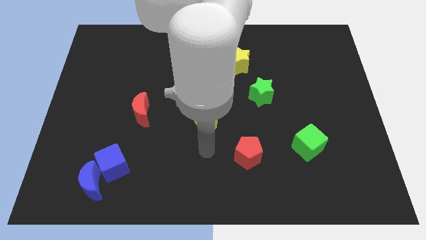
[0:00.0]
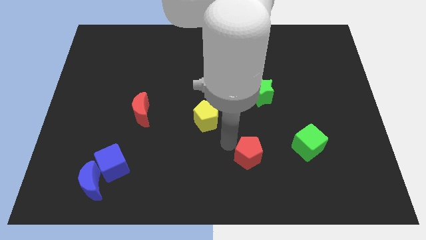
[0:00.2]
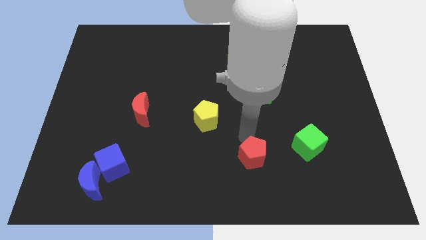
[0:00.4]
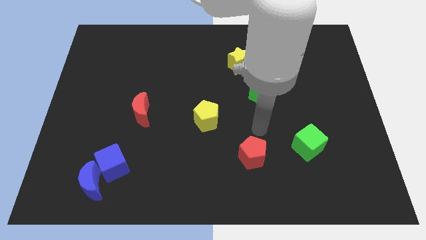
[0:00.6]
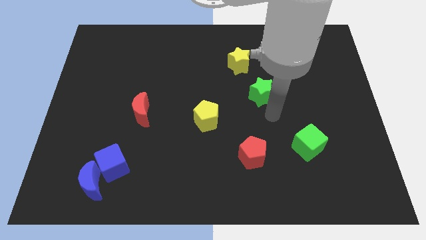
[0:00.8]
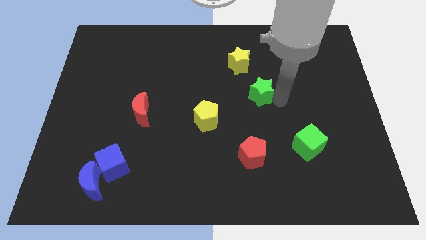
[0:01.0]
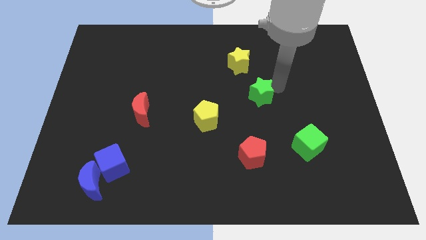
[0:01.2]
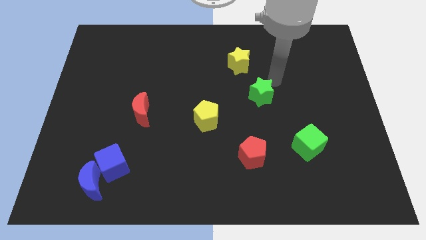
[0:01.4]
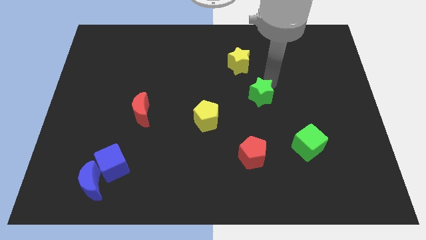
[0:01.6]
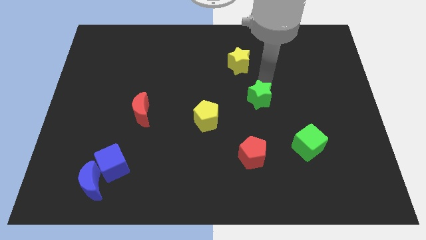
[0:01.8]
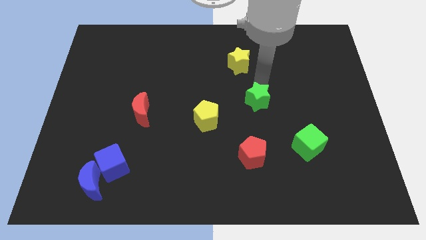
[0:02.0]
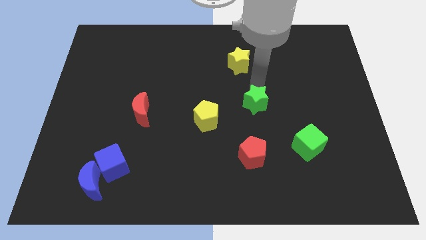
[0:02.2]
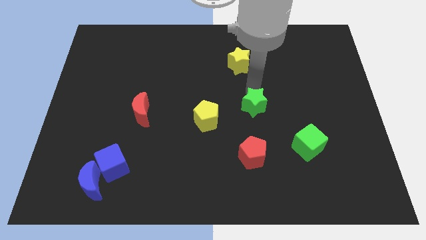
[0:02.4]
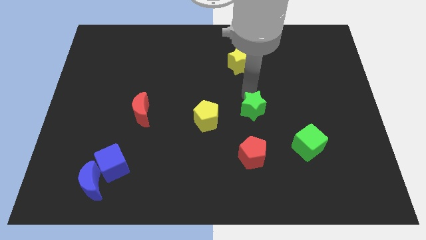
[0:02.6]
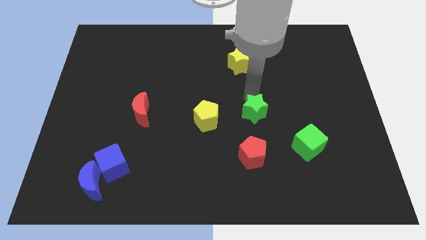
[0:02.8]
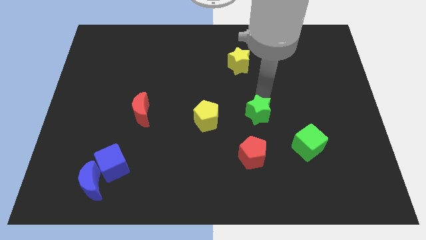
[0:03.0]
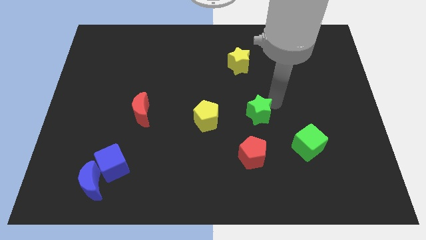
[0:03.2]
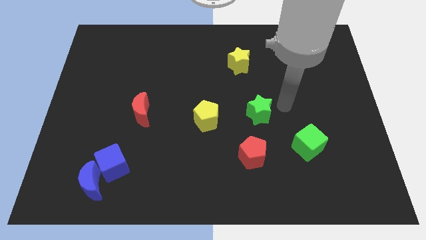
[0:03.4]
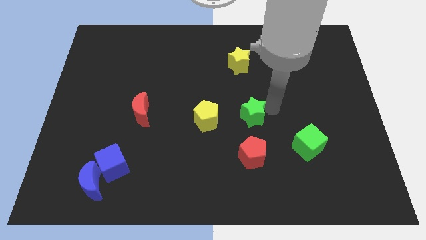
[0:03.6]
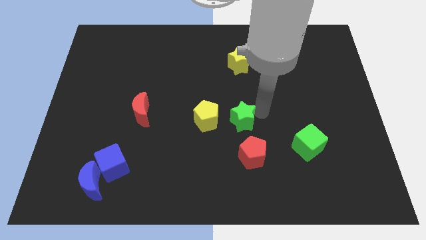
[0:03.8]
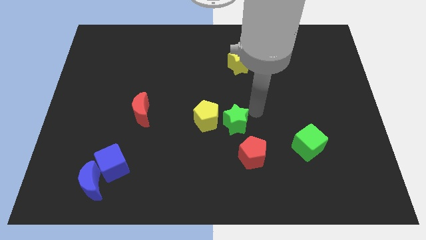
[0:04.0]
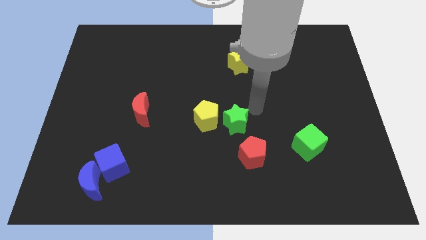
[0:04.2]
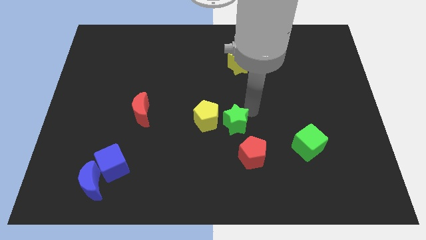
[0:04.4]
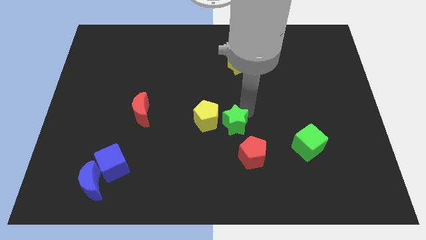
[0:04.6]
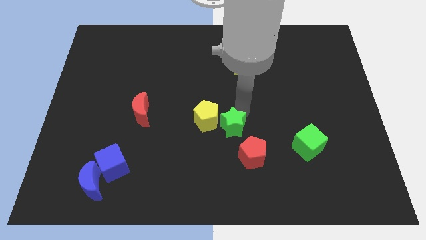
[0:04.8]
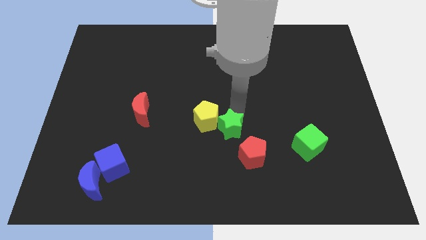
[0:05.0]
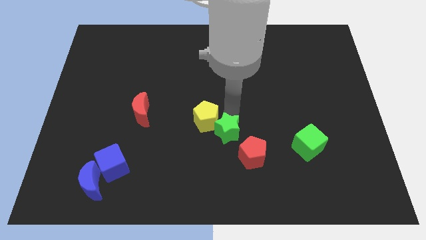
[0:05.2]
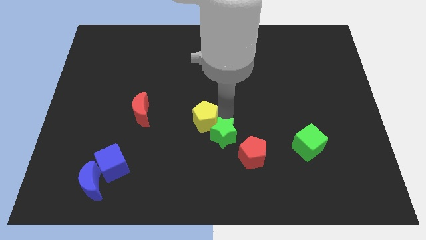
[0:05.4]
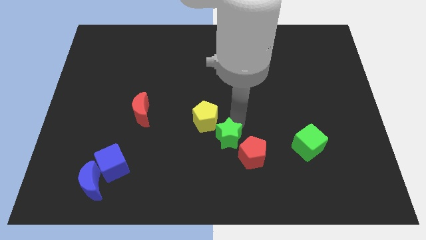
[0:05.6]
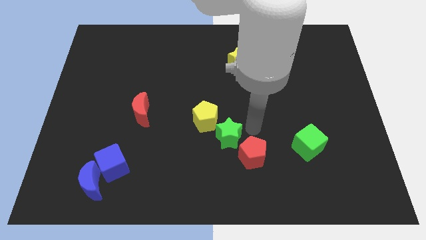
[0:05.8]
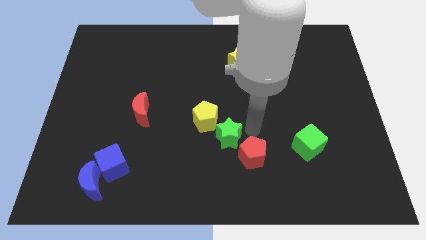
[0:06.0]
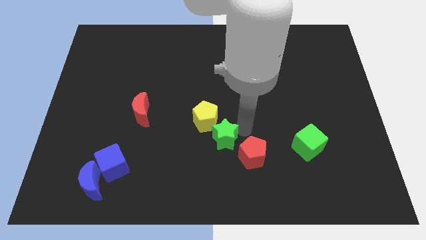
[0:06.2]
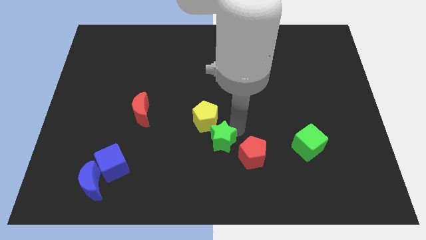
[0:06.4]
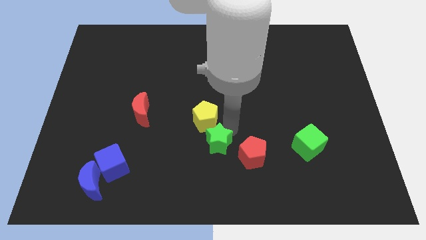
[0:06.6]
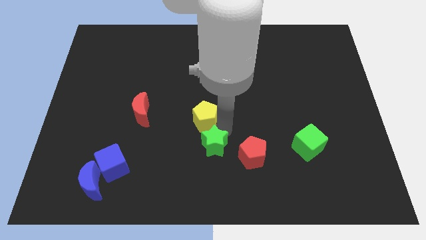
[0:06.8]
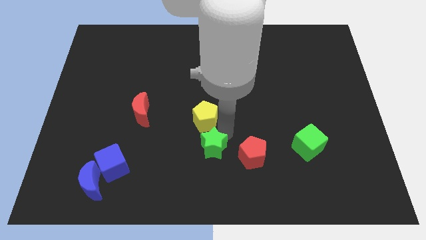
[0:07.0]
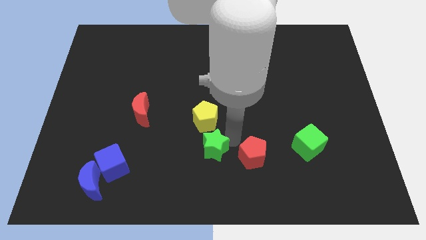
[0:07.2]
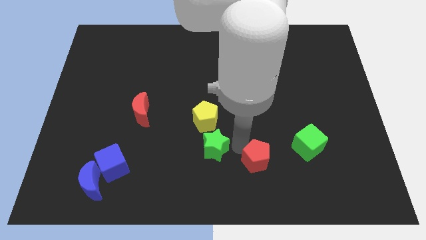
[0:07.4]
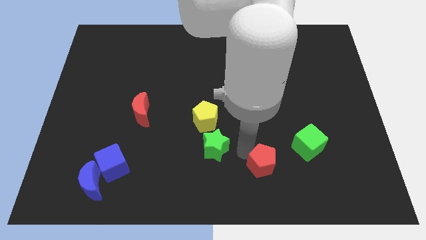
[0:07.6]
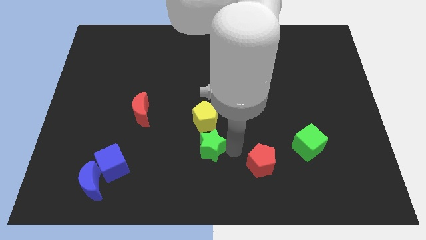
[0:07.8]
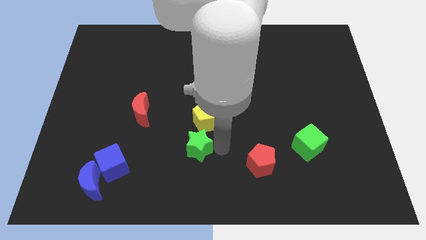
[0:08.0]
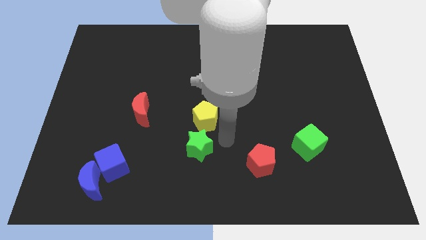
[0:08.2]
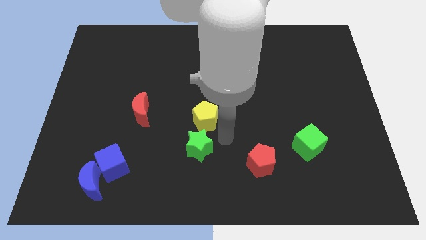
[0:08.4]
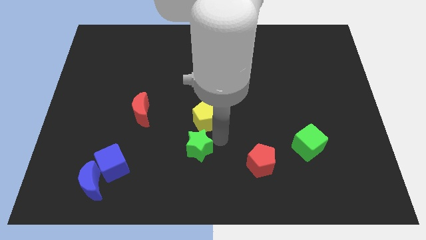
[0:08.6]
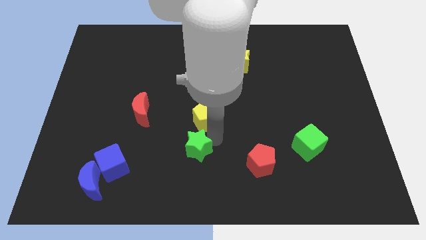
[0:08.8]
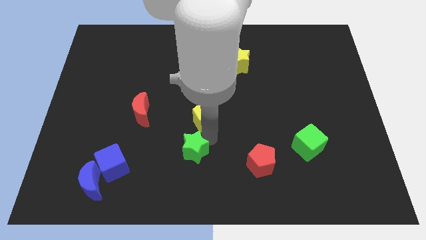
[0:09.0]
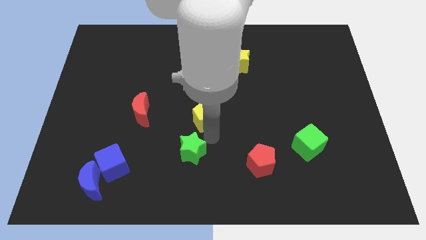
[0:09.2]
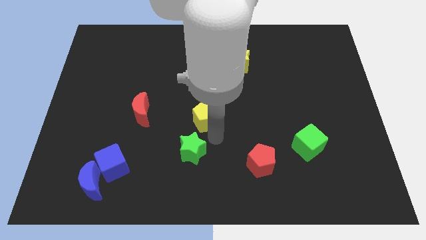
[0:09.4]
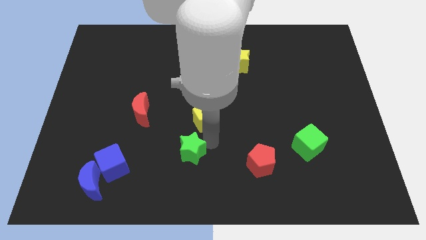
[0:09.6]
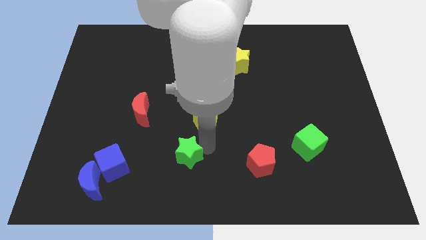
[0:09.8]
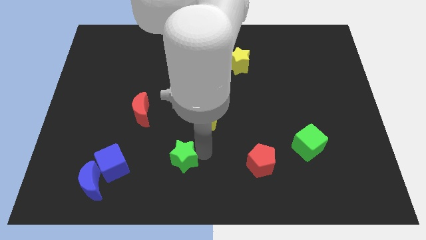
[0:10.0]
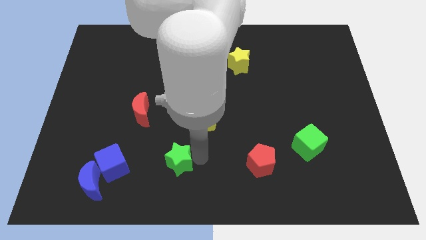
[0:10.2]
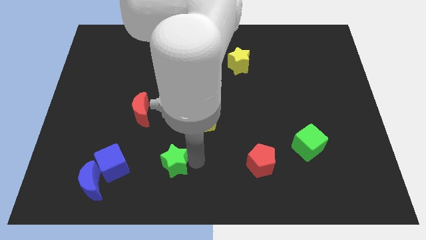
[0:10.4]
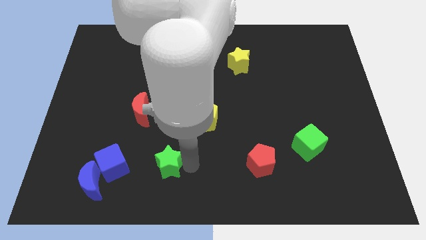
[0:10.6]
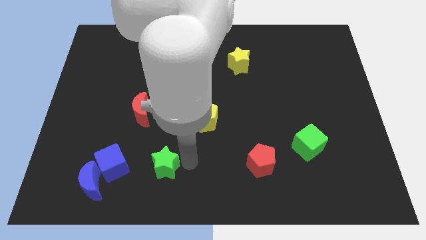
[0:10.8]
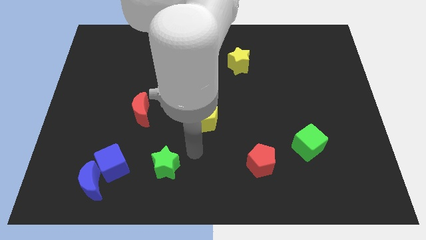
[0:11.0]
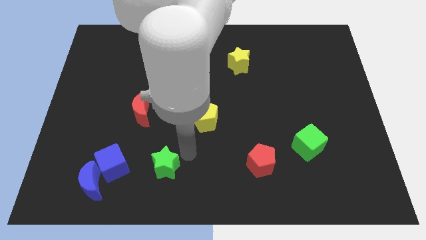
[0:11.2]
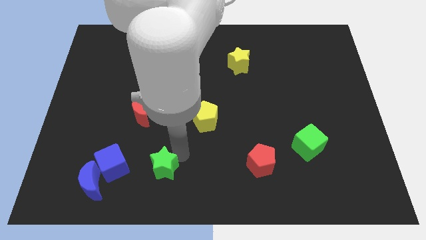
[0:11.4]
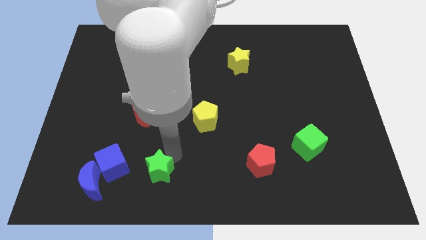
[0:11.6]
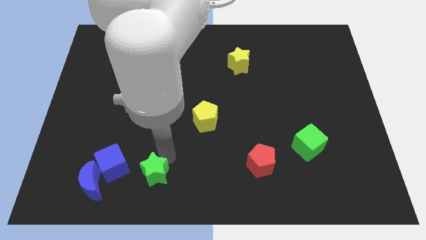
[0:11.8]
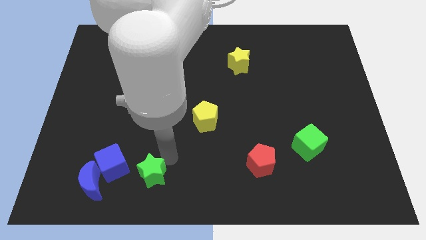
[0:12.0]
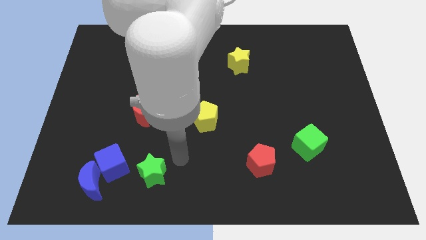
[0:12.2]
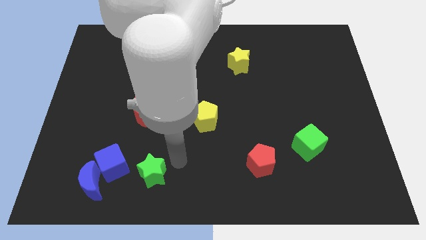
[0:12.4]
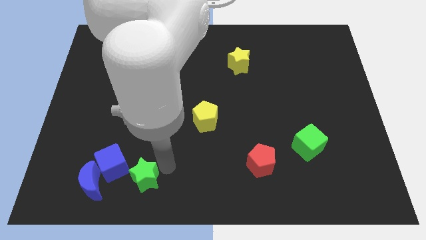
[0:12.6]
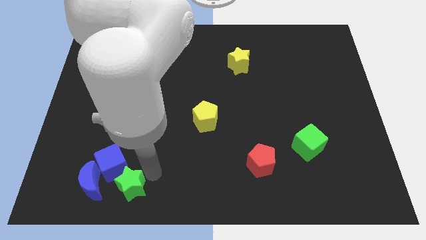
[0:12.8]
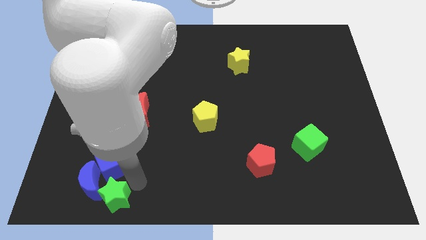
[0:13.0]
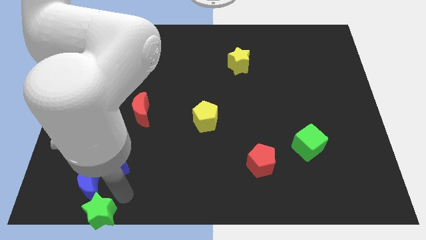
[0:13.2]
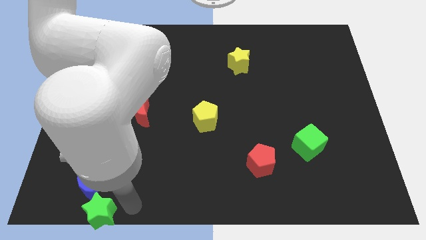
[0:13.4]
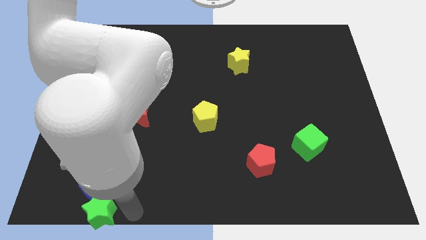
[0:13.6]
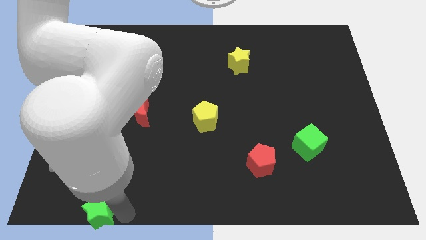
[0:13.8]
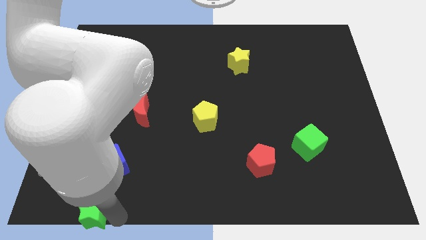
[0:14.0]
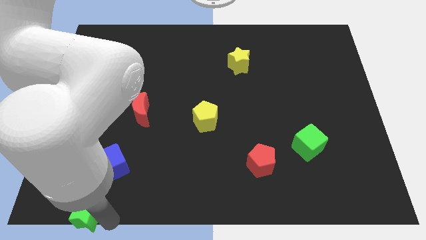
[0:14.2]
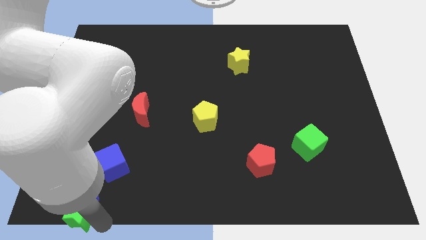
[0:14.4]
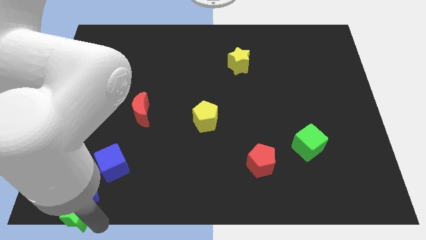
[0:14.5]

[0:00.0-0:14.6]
push the green star to the bottom left corner
